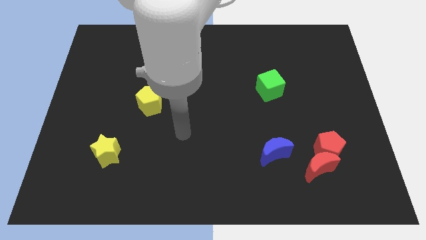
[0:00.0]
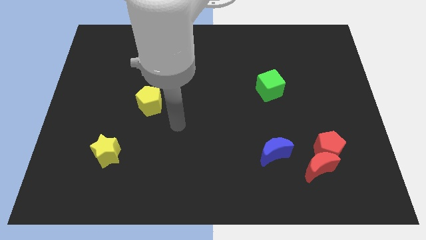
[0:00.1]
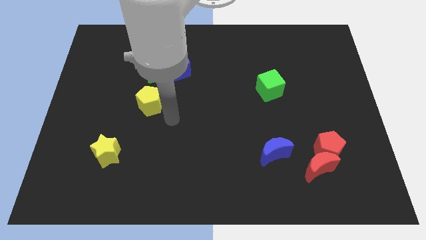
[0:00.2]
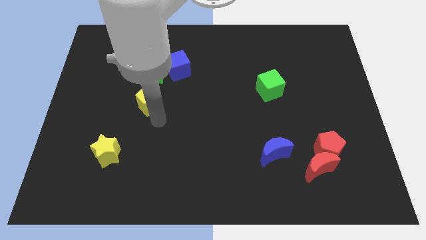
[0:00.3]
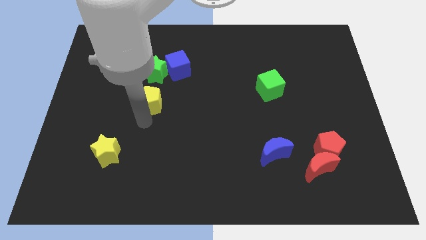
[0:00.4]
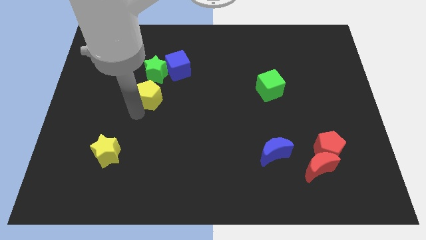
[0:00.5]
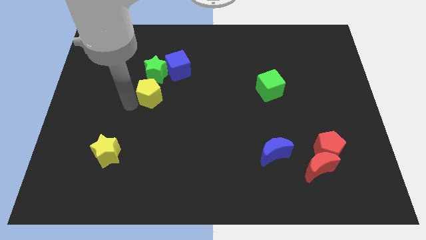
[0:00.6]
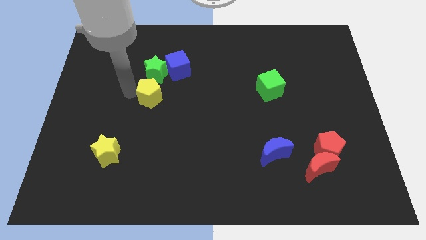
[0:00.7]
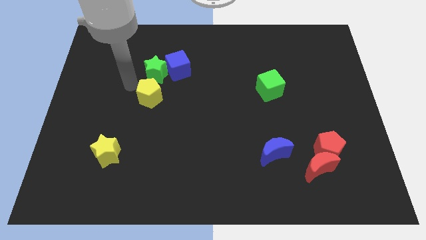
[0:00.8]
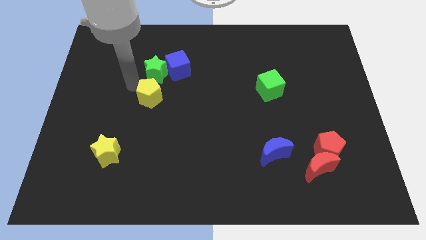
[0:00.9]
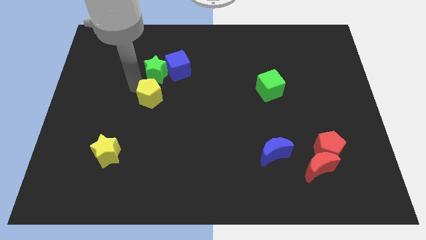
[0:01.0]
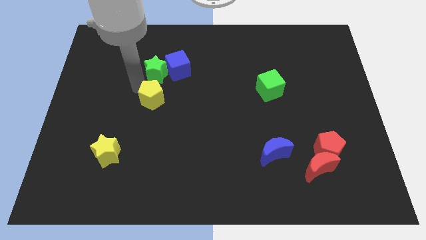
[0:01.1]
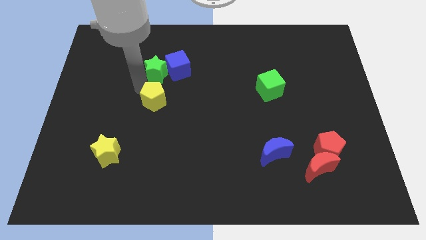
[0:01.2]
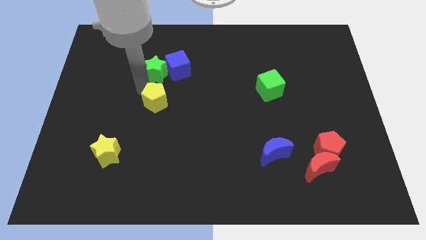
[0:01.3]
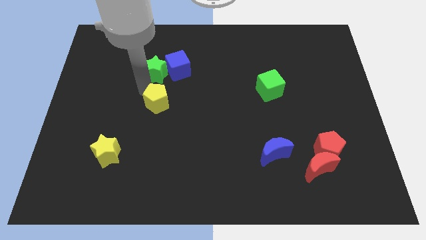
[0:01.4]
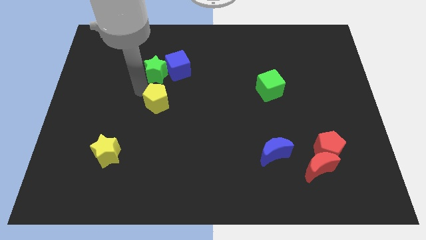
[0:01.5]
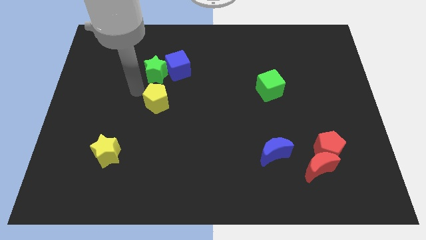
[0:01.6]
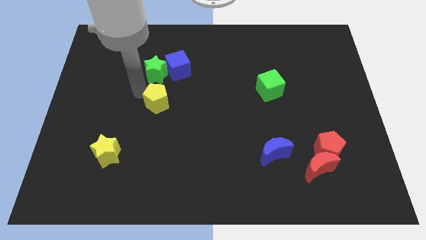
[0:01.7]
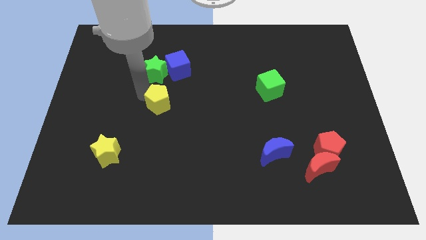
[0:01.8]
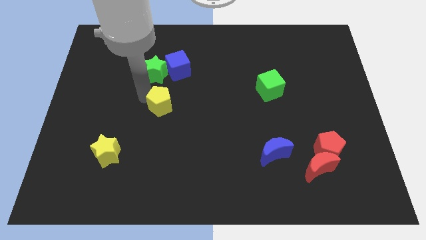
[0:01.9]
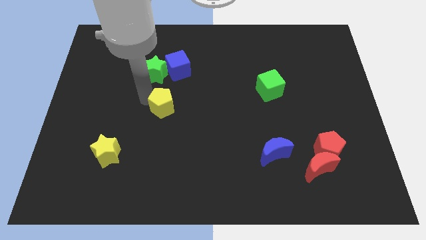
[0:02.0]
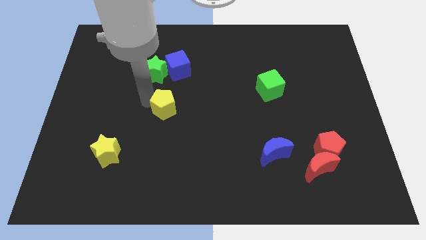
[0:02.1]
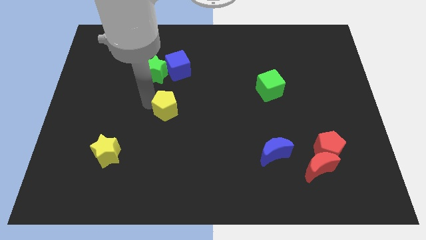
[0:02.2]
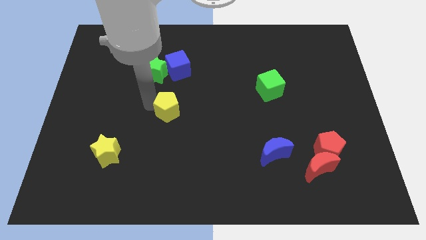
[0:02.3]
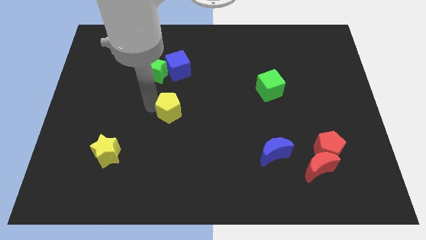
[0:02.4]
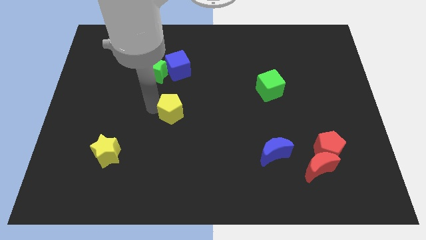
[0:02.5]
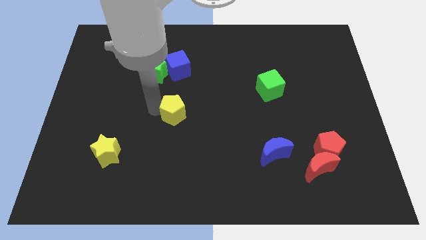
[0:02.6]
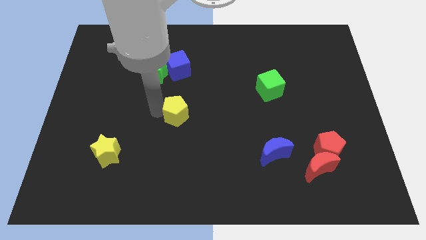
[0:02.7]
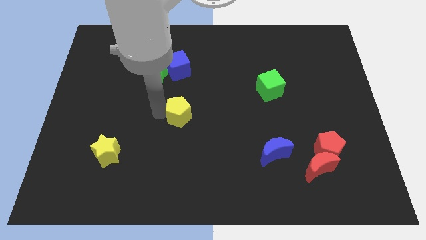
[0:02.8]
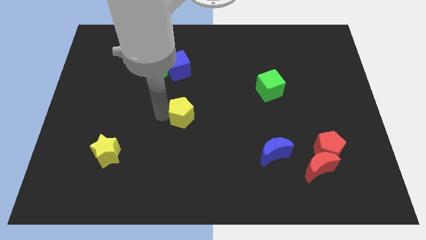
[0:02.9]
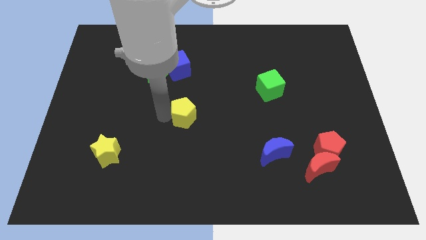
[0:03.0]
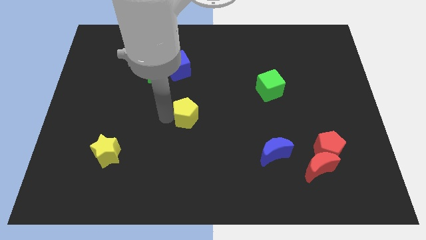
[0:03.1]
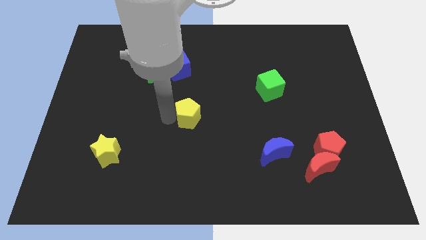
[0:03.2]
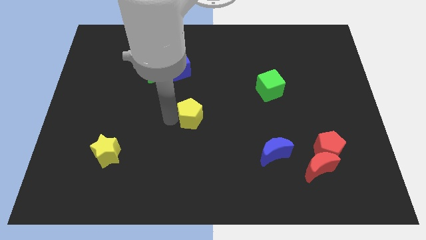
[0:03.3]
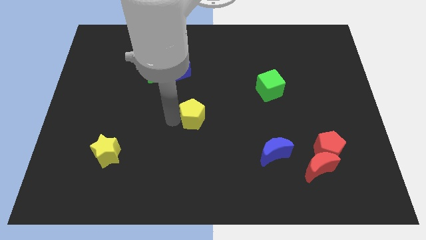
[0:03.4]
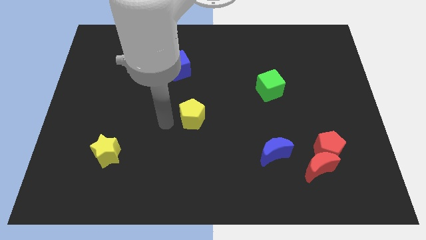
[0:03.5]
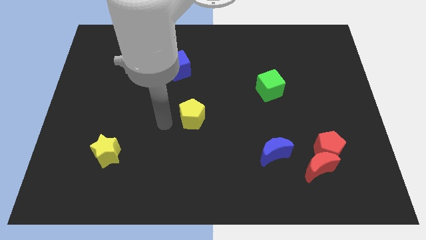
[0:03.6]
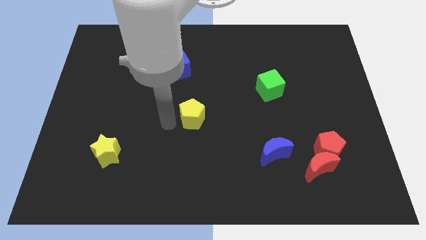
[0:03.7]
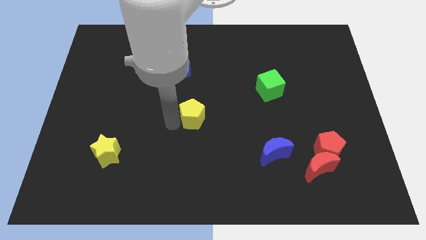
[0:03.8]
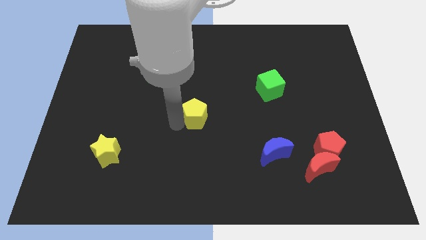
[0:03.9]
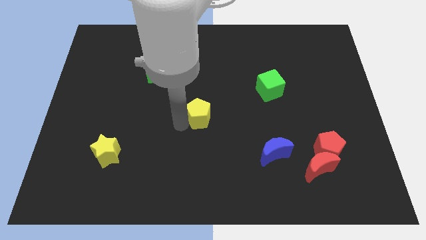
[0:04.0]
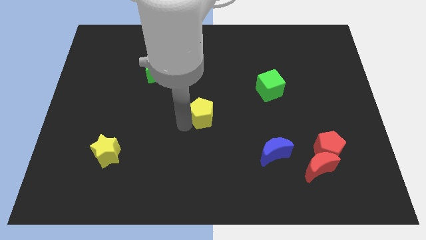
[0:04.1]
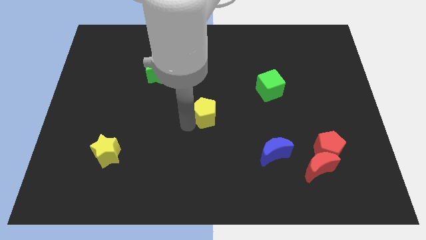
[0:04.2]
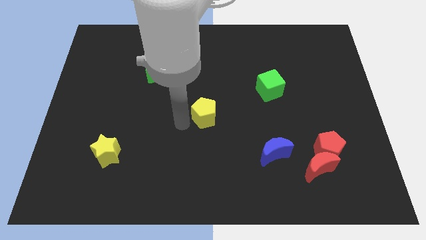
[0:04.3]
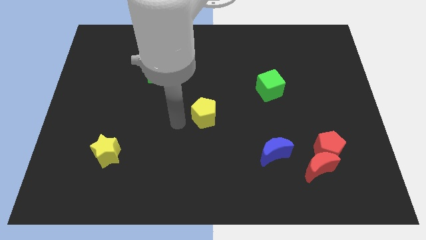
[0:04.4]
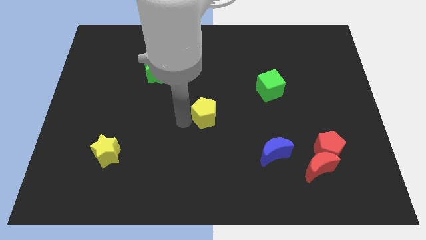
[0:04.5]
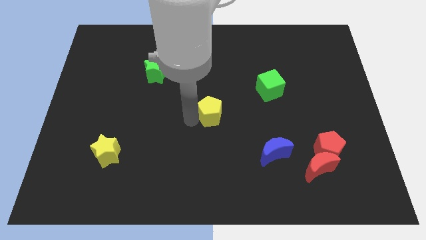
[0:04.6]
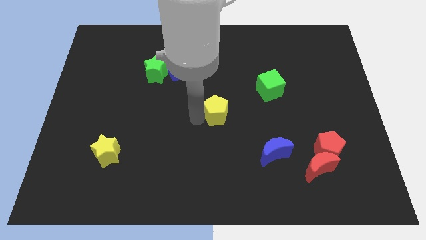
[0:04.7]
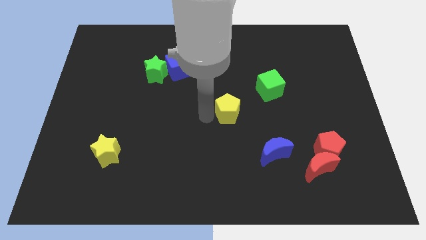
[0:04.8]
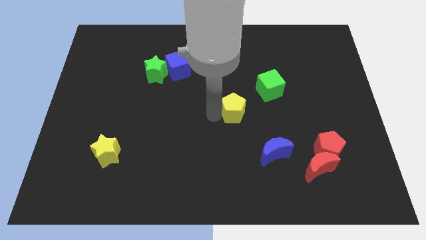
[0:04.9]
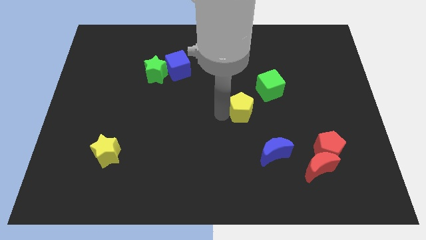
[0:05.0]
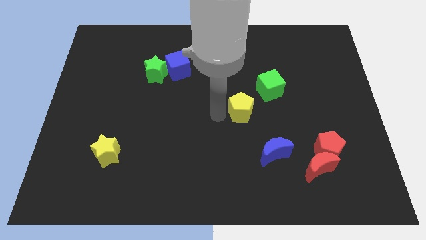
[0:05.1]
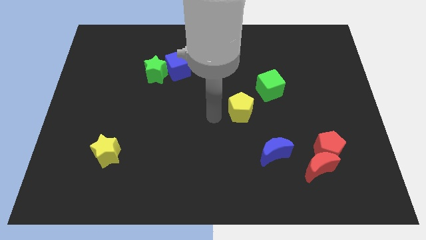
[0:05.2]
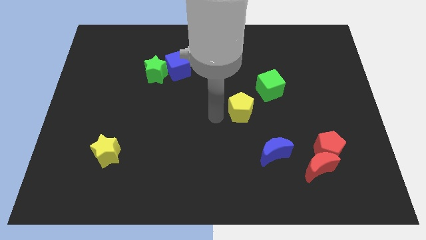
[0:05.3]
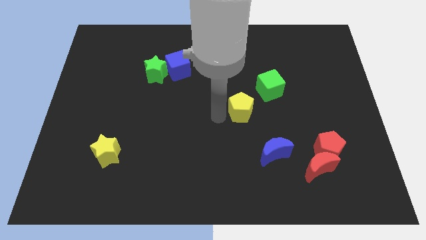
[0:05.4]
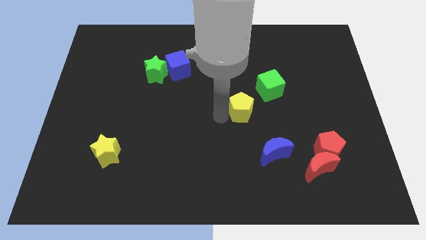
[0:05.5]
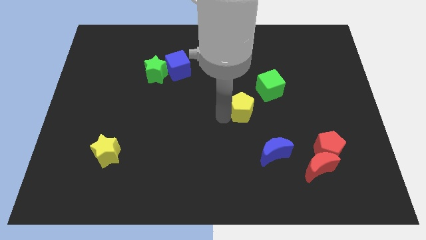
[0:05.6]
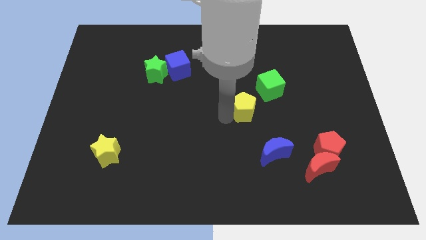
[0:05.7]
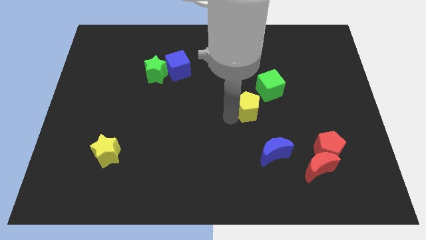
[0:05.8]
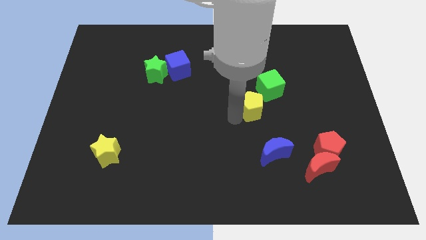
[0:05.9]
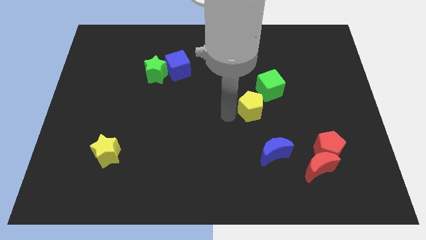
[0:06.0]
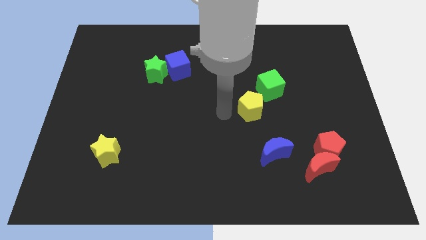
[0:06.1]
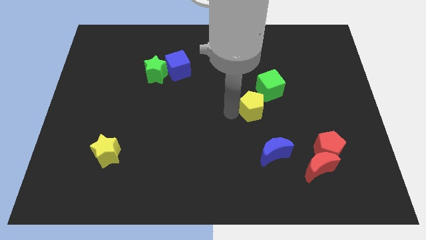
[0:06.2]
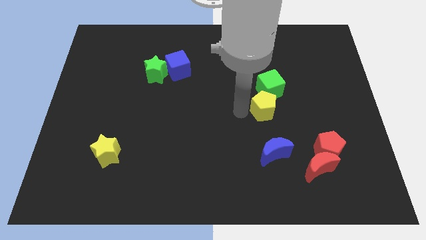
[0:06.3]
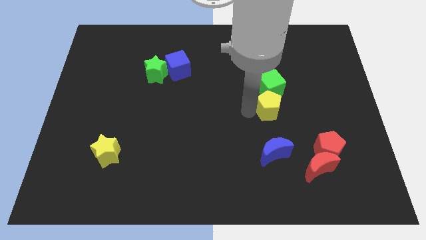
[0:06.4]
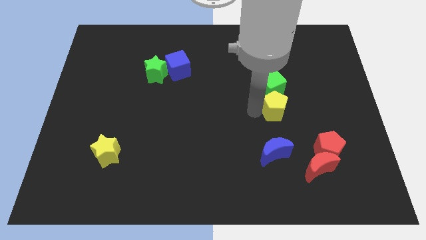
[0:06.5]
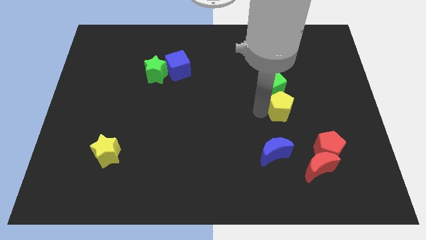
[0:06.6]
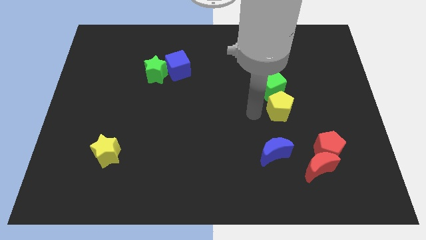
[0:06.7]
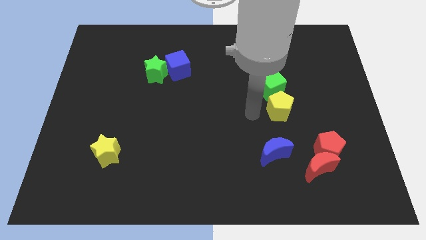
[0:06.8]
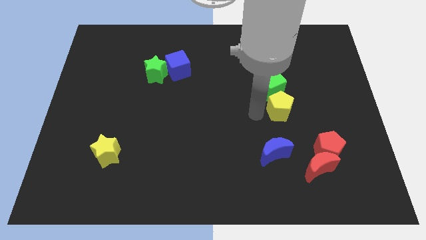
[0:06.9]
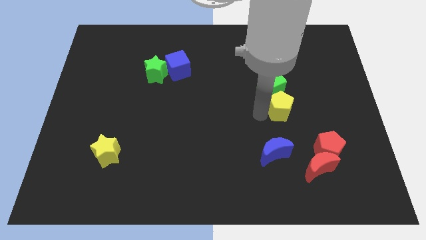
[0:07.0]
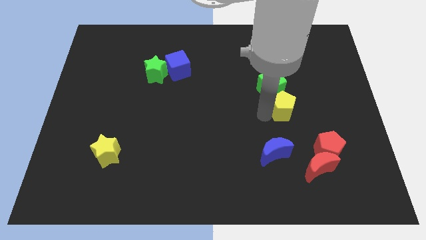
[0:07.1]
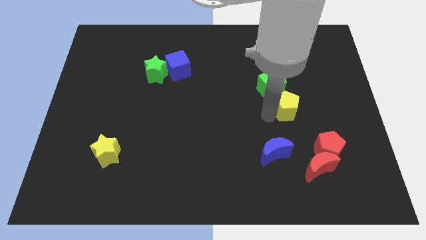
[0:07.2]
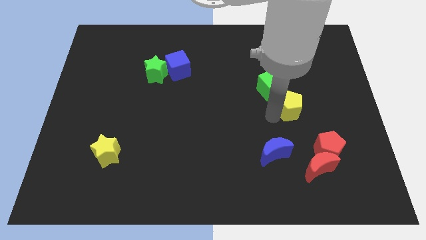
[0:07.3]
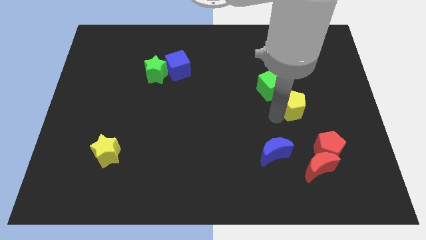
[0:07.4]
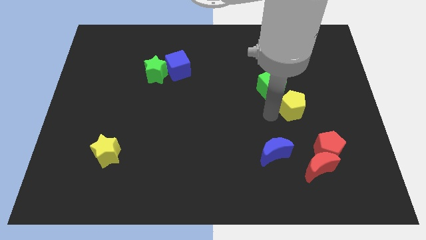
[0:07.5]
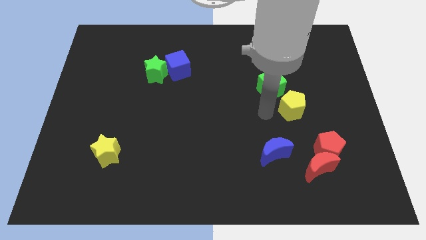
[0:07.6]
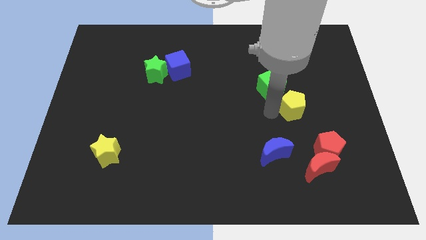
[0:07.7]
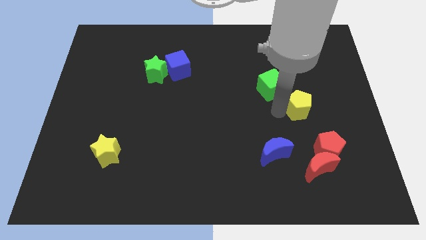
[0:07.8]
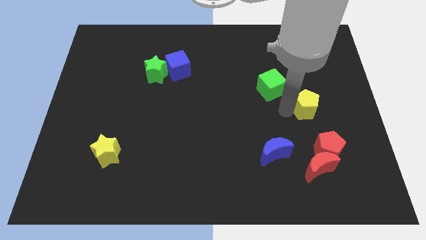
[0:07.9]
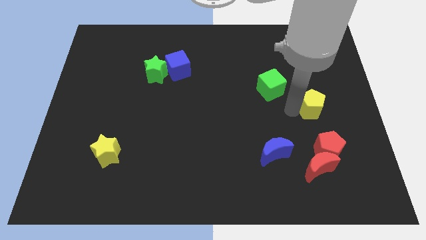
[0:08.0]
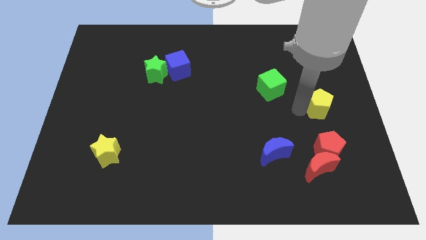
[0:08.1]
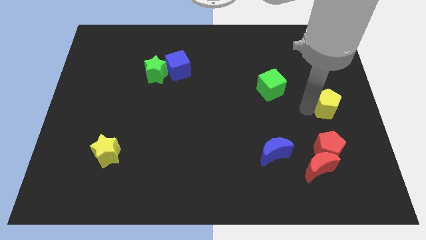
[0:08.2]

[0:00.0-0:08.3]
slide the yellow pentagon to the right side of the board
